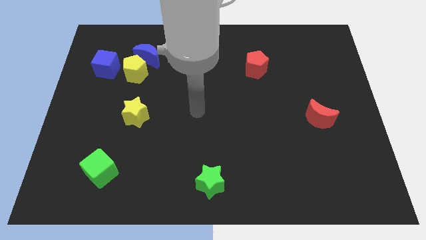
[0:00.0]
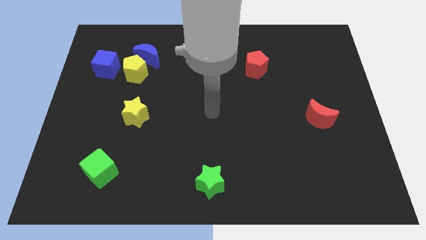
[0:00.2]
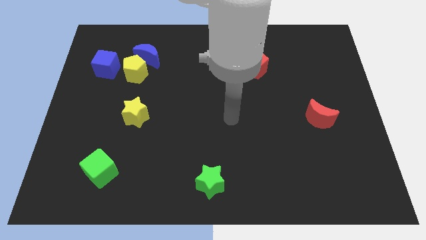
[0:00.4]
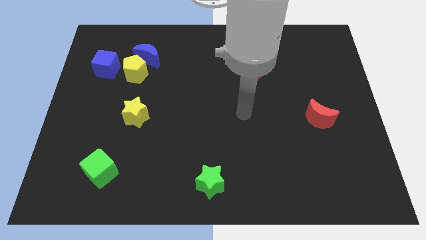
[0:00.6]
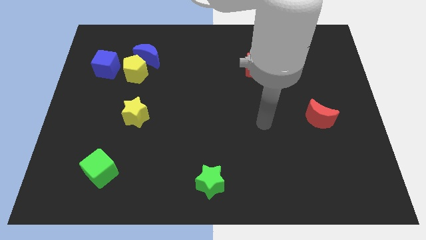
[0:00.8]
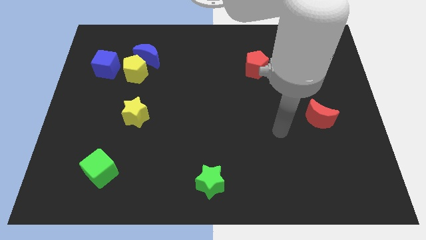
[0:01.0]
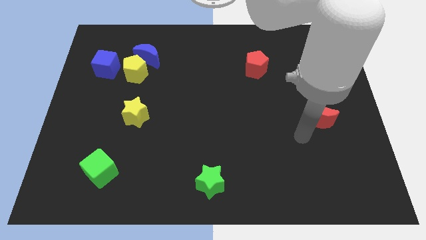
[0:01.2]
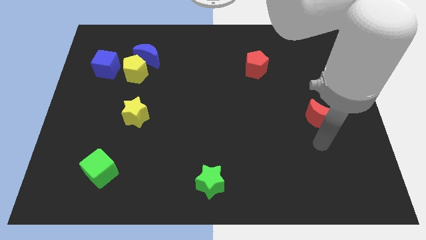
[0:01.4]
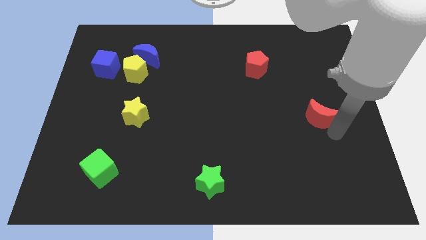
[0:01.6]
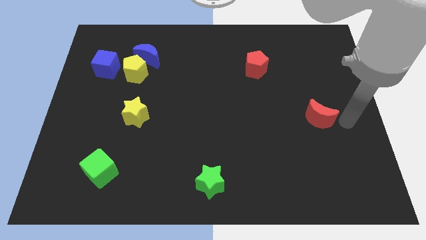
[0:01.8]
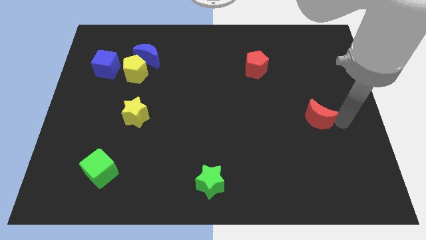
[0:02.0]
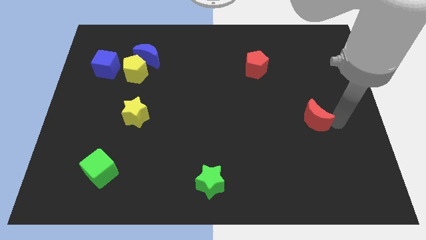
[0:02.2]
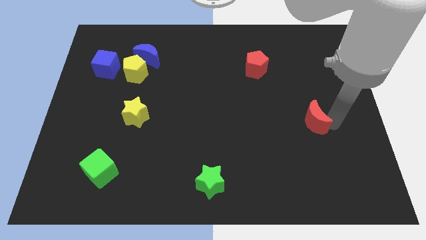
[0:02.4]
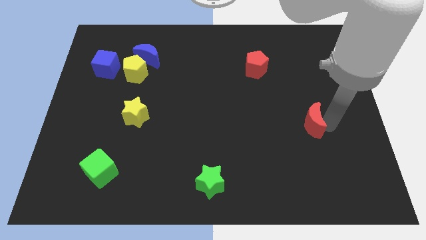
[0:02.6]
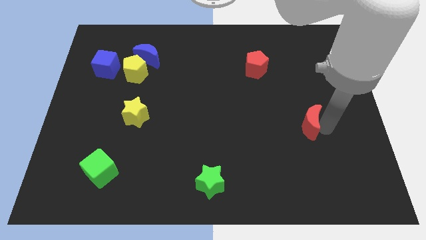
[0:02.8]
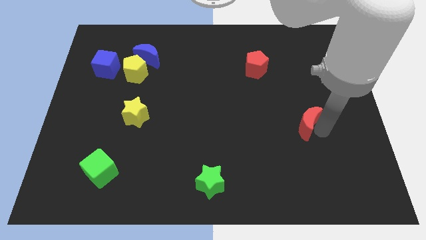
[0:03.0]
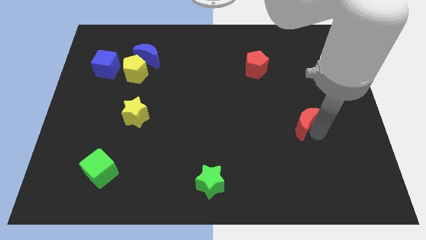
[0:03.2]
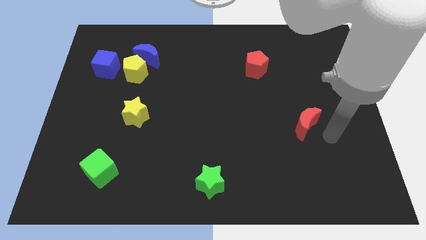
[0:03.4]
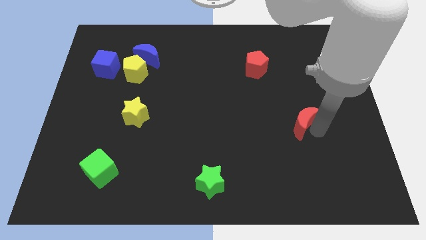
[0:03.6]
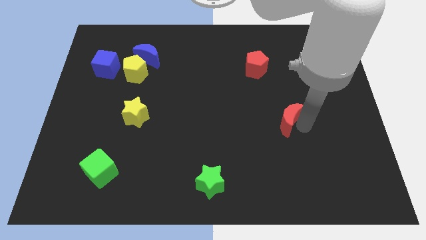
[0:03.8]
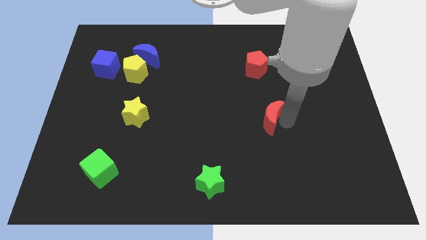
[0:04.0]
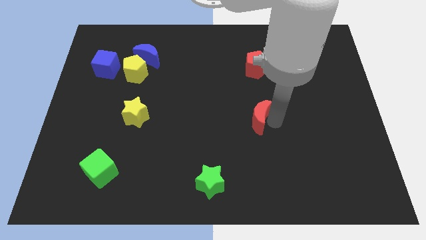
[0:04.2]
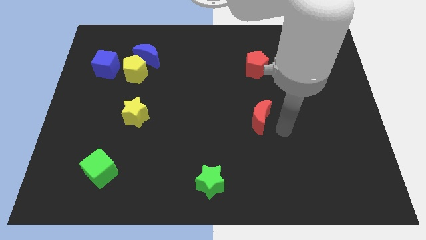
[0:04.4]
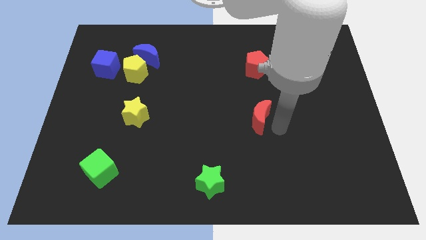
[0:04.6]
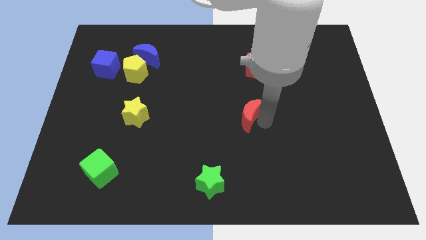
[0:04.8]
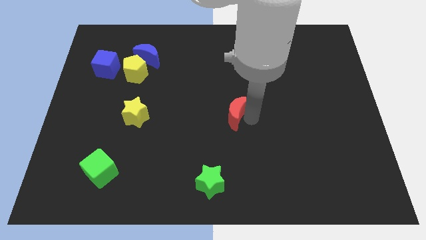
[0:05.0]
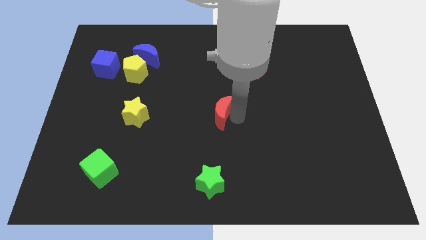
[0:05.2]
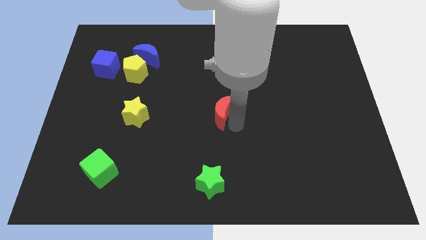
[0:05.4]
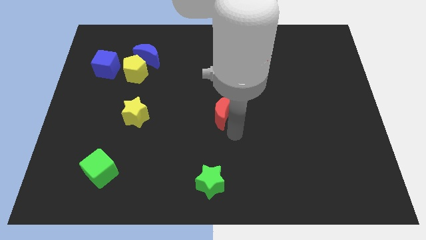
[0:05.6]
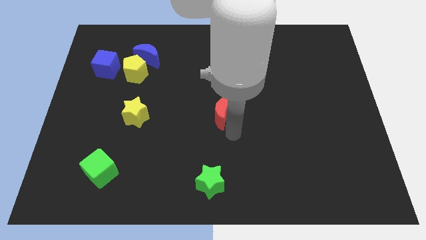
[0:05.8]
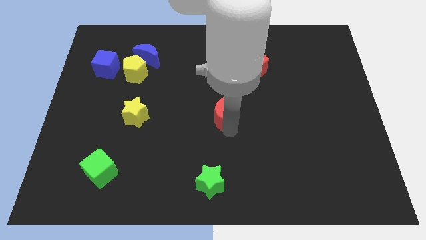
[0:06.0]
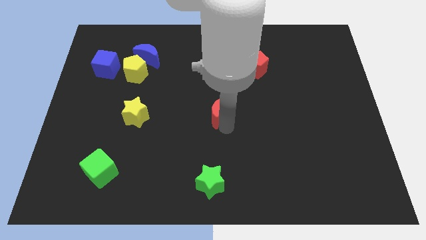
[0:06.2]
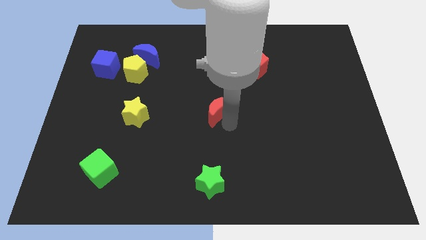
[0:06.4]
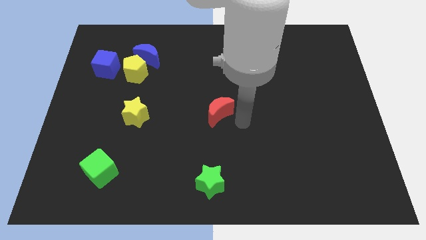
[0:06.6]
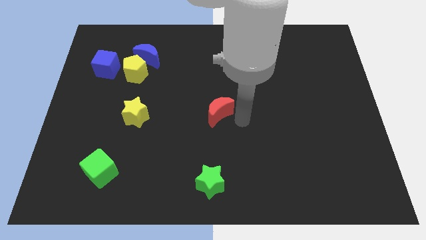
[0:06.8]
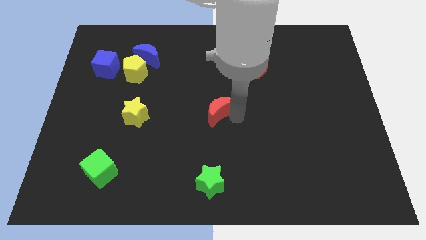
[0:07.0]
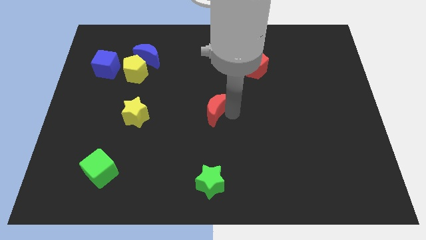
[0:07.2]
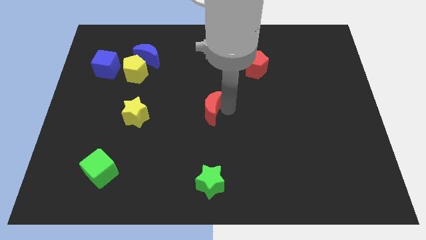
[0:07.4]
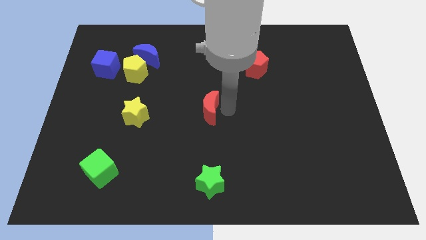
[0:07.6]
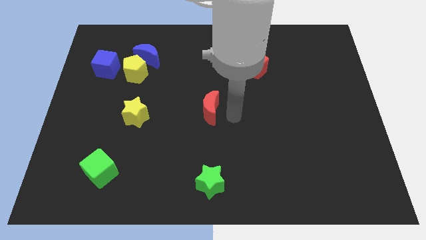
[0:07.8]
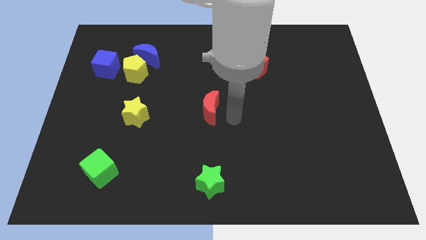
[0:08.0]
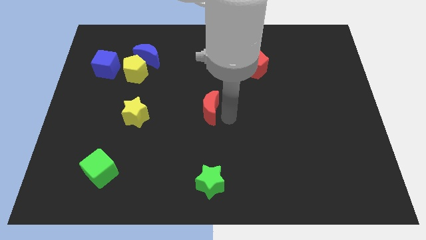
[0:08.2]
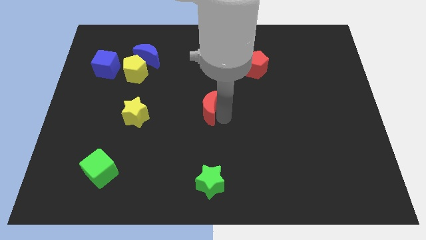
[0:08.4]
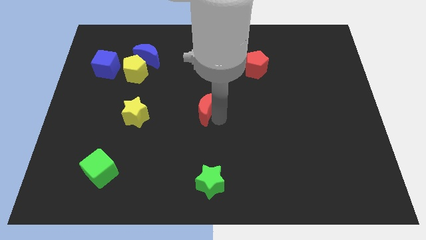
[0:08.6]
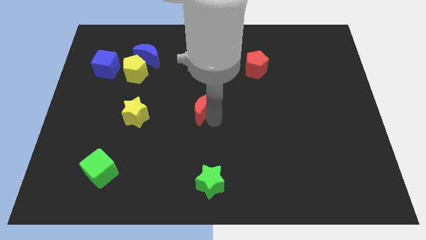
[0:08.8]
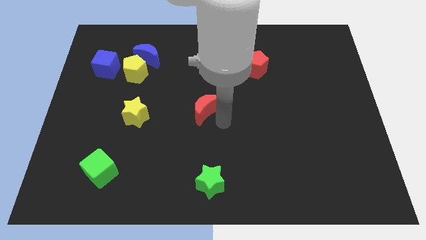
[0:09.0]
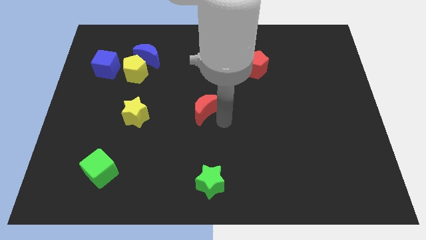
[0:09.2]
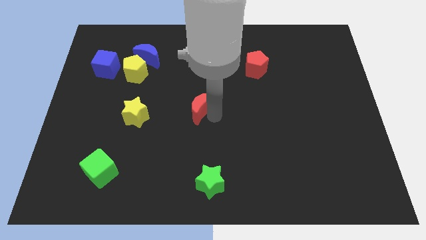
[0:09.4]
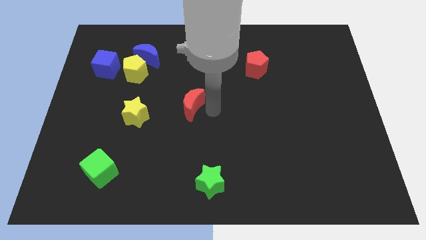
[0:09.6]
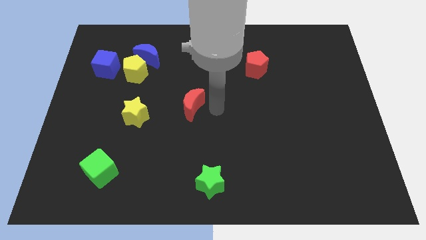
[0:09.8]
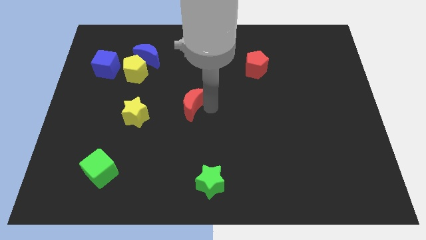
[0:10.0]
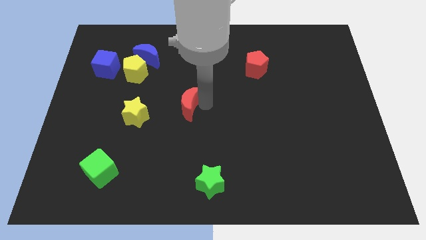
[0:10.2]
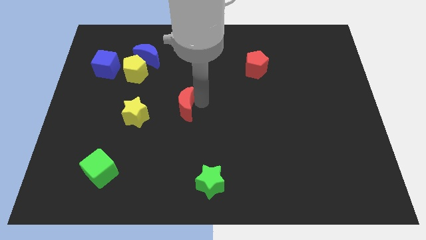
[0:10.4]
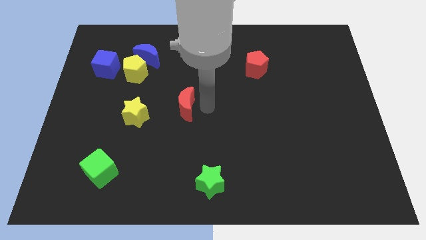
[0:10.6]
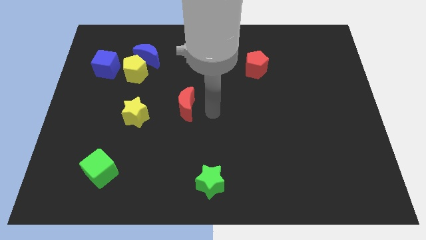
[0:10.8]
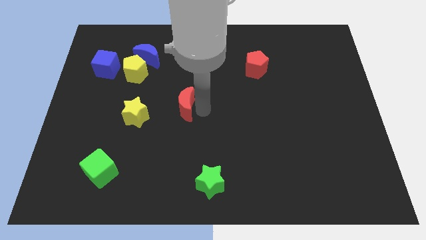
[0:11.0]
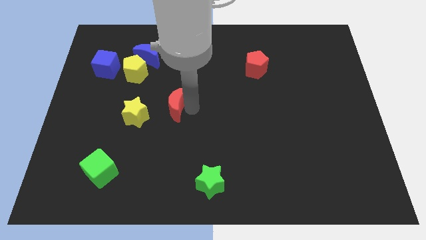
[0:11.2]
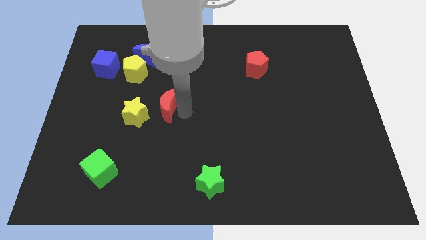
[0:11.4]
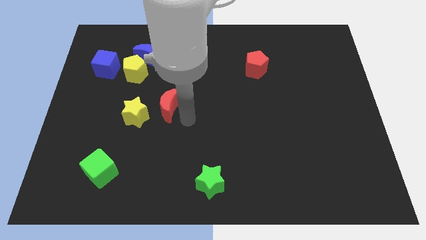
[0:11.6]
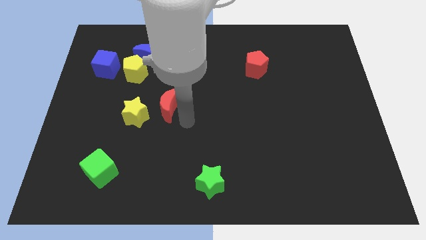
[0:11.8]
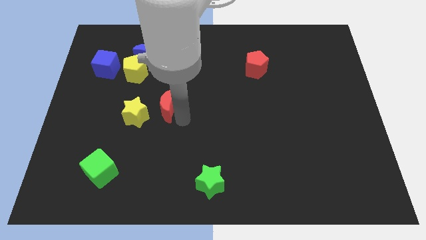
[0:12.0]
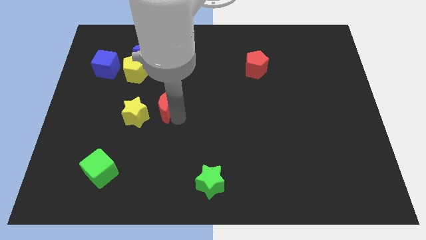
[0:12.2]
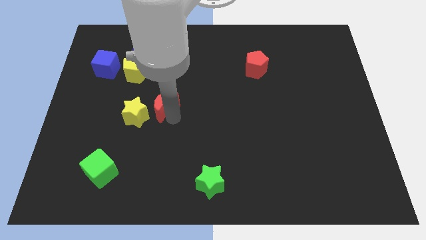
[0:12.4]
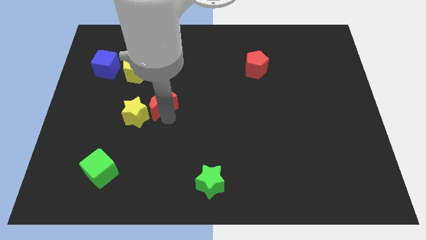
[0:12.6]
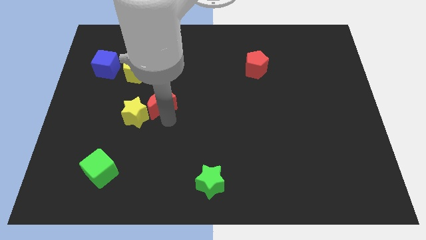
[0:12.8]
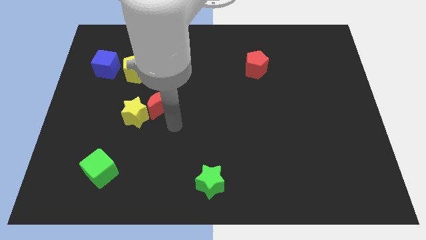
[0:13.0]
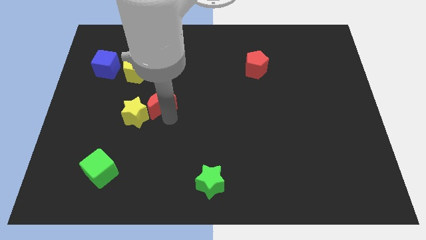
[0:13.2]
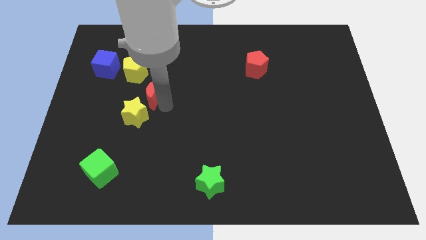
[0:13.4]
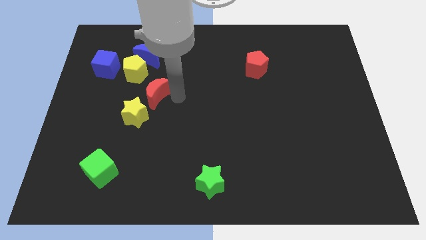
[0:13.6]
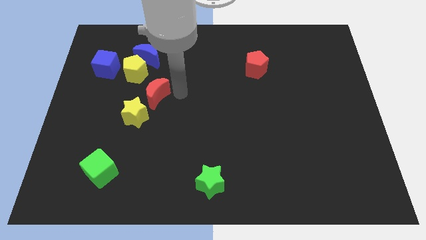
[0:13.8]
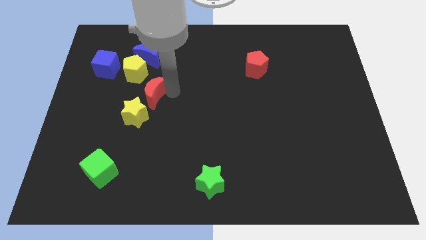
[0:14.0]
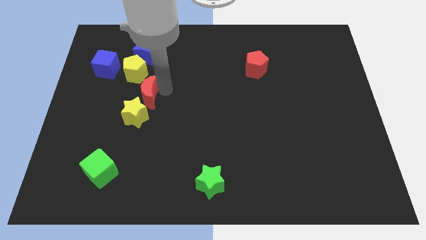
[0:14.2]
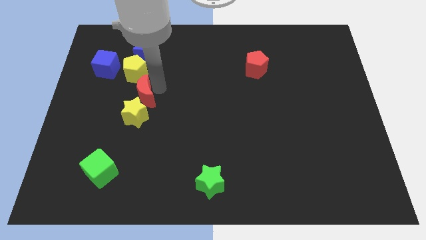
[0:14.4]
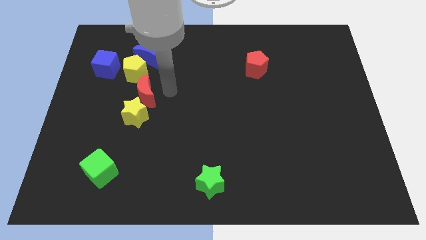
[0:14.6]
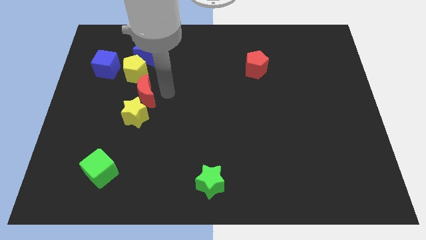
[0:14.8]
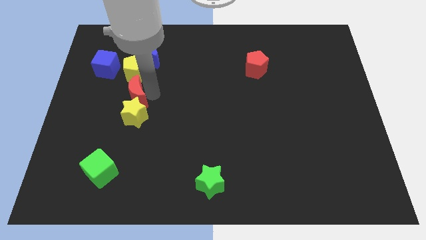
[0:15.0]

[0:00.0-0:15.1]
put the red moon diagonally up and to the left of the yellow star
